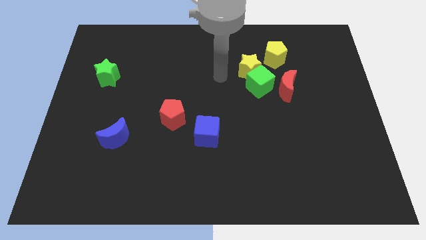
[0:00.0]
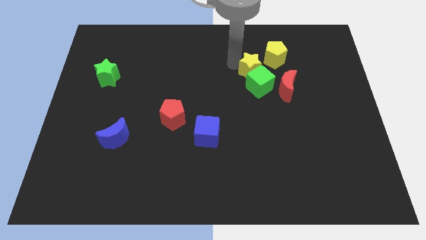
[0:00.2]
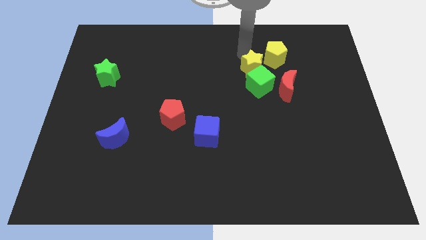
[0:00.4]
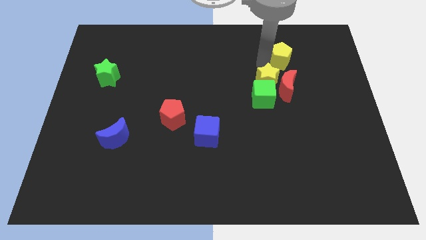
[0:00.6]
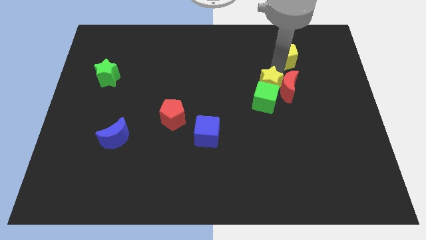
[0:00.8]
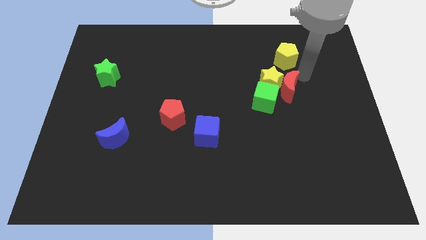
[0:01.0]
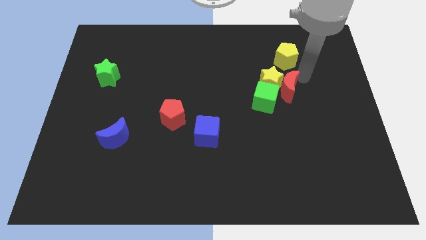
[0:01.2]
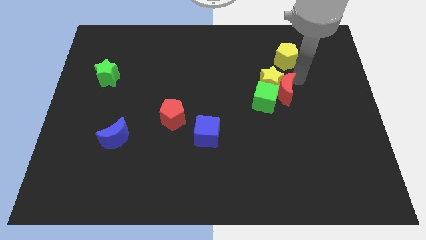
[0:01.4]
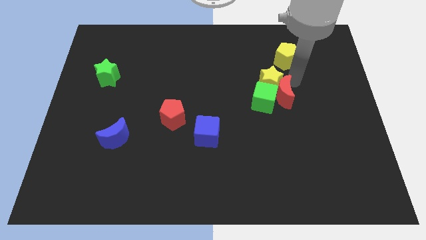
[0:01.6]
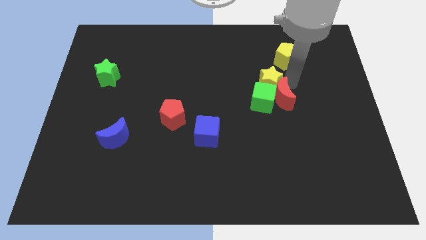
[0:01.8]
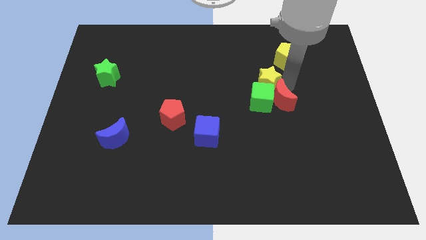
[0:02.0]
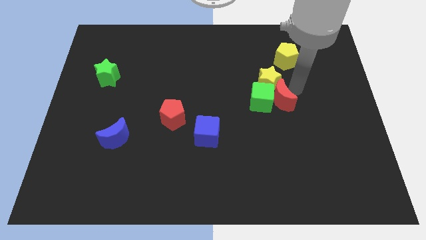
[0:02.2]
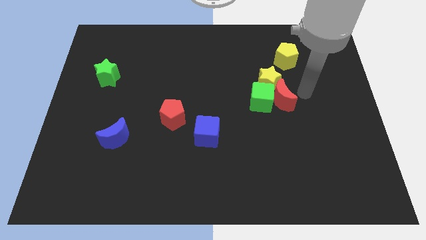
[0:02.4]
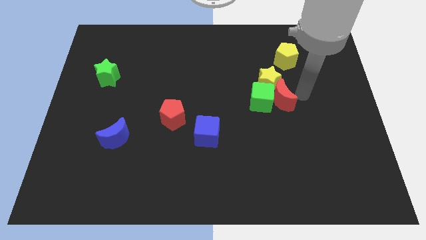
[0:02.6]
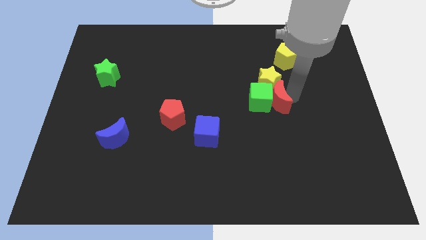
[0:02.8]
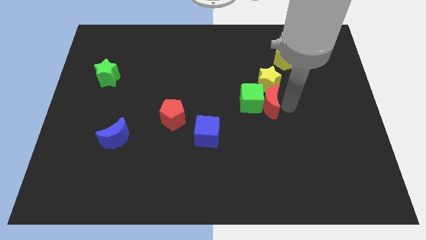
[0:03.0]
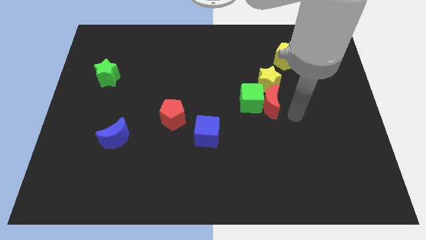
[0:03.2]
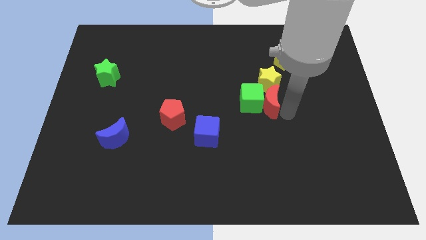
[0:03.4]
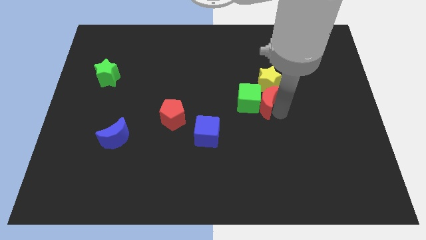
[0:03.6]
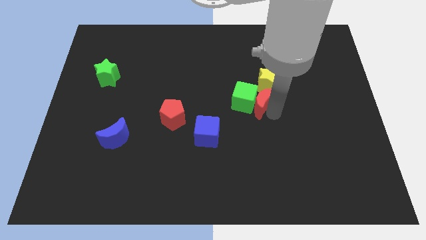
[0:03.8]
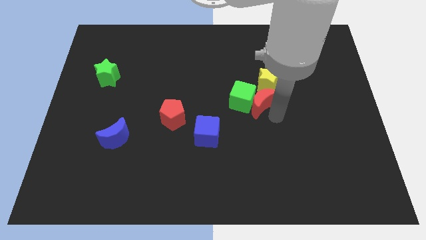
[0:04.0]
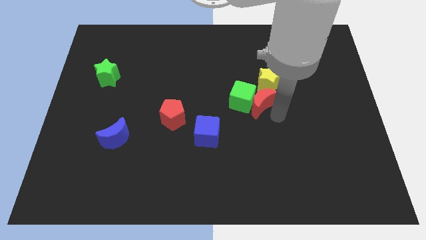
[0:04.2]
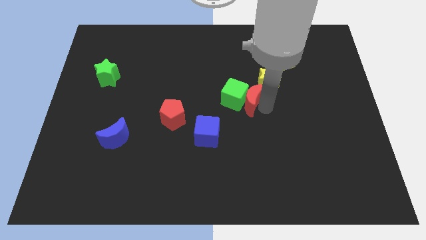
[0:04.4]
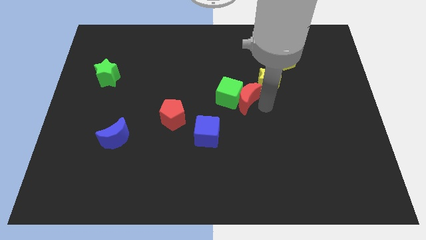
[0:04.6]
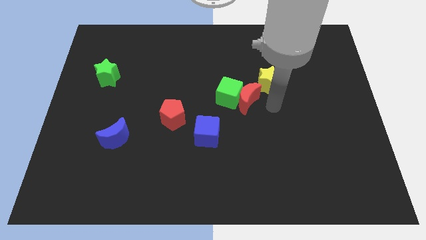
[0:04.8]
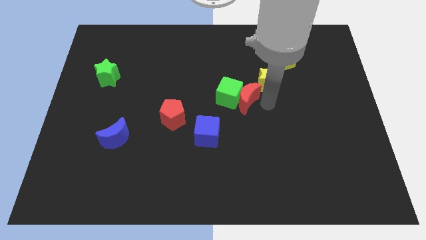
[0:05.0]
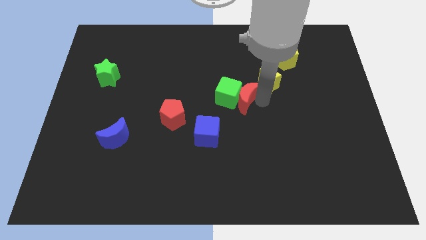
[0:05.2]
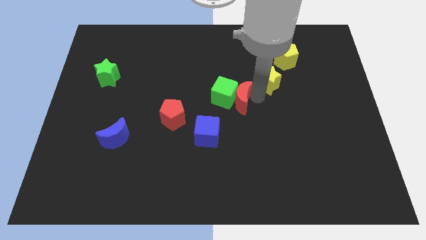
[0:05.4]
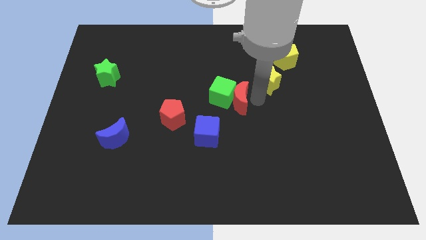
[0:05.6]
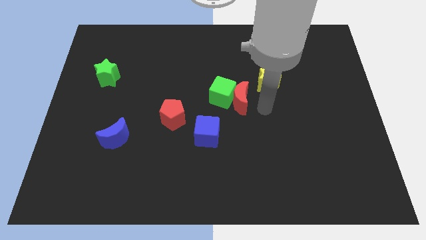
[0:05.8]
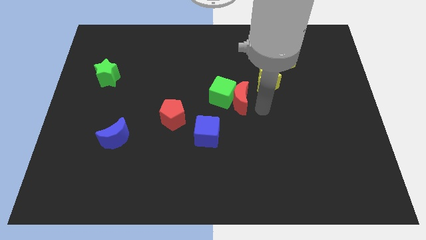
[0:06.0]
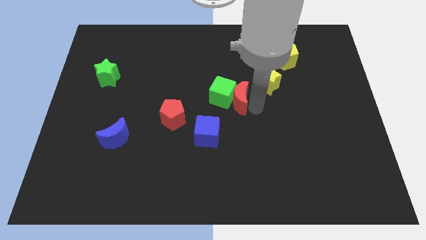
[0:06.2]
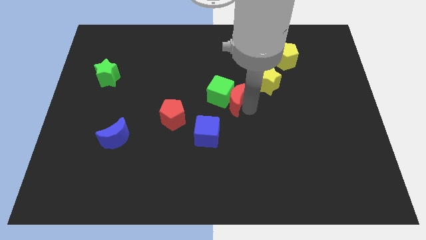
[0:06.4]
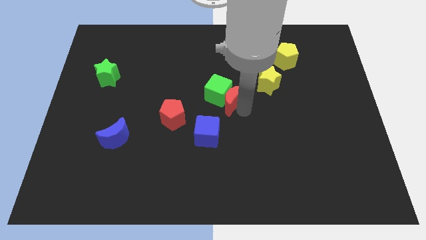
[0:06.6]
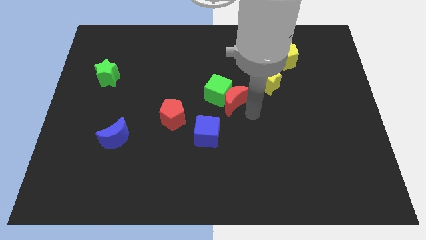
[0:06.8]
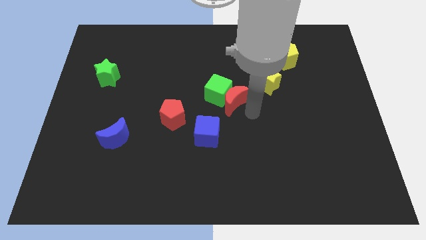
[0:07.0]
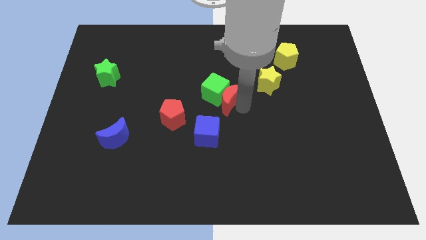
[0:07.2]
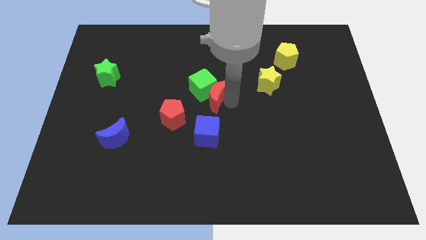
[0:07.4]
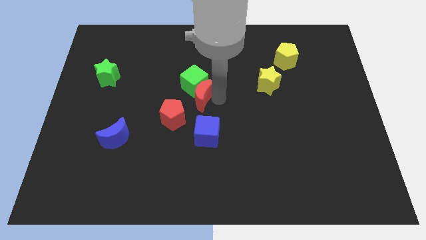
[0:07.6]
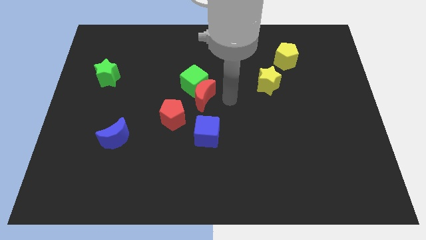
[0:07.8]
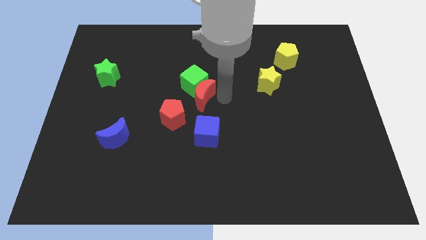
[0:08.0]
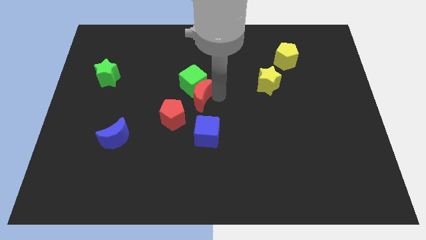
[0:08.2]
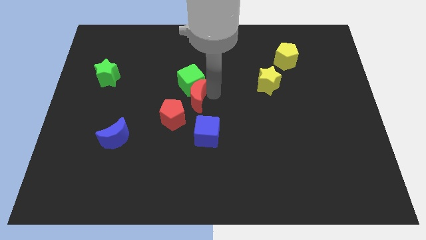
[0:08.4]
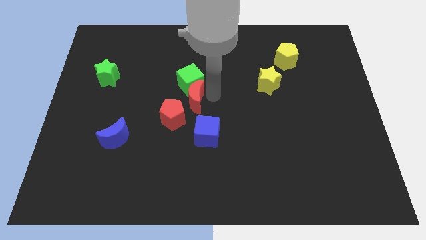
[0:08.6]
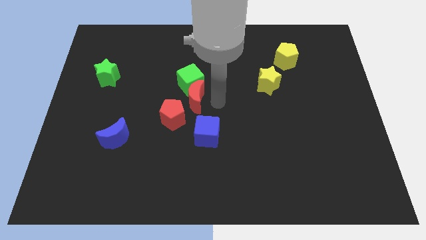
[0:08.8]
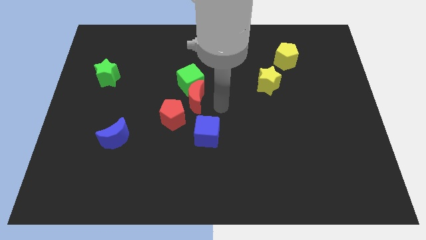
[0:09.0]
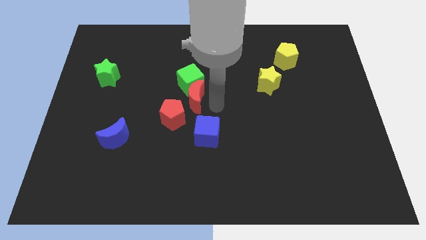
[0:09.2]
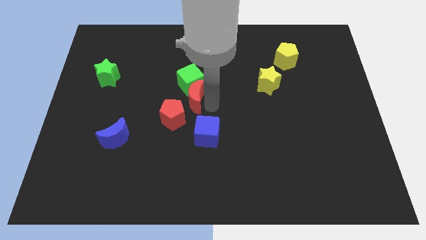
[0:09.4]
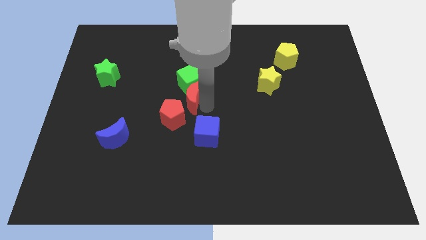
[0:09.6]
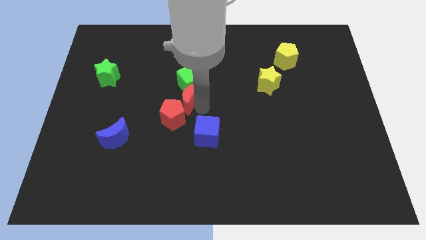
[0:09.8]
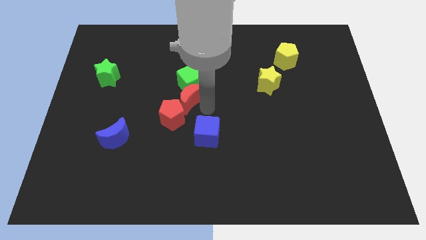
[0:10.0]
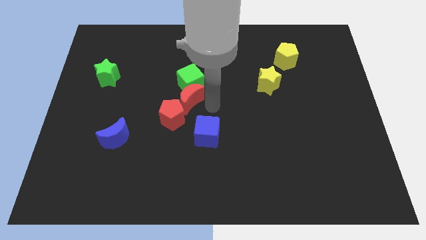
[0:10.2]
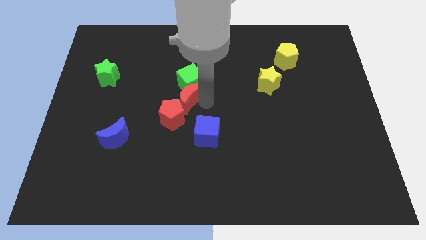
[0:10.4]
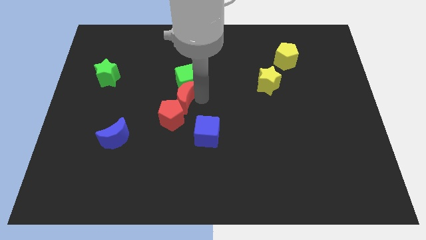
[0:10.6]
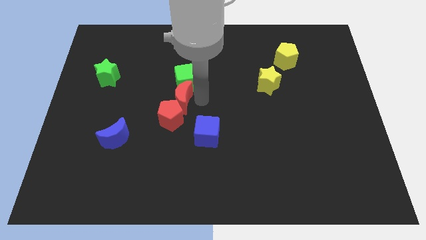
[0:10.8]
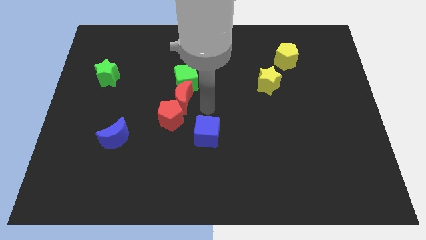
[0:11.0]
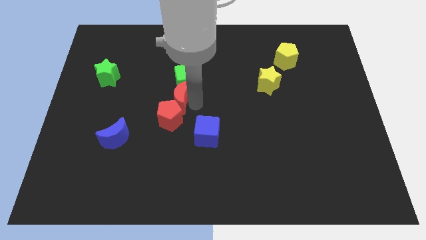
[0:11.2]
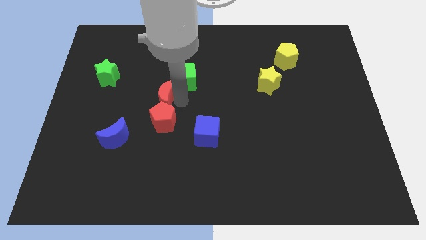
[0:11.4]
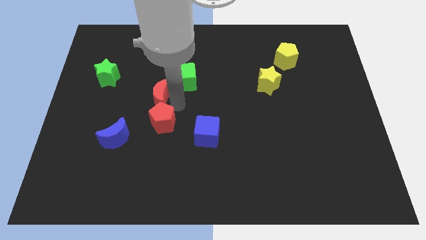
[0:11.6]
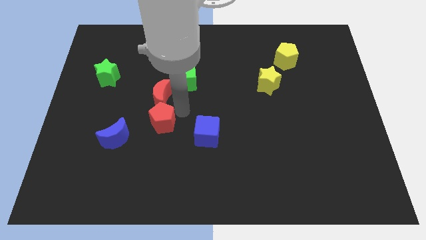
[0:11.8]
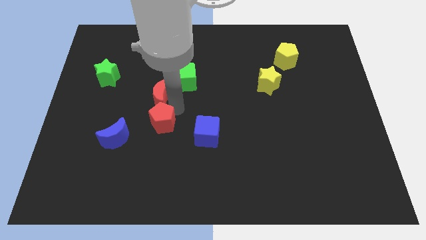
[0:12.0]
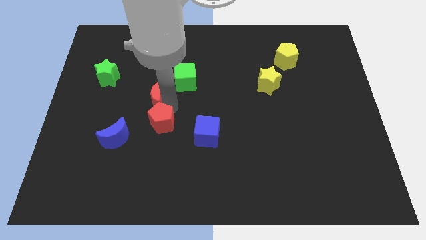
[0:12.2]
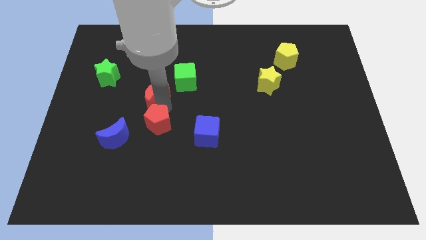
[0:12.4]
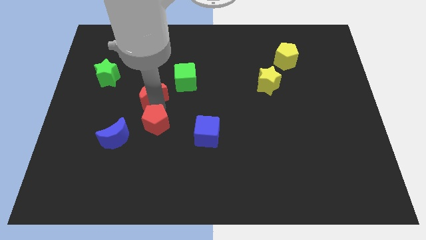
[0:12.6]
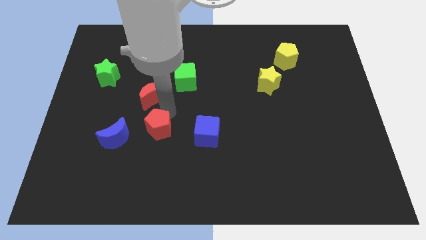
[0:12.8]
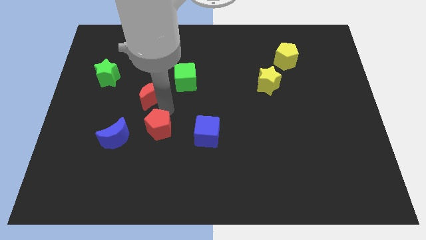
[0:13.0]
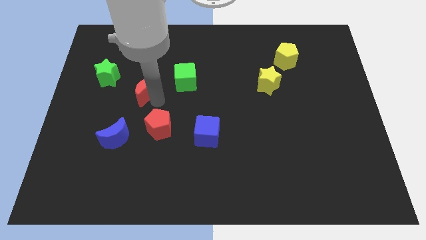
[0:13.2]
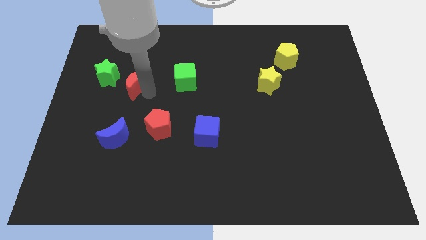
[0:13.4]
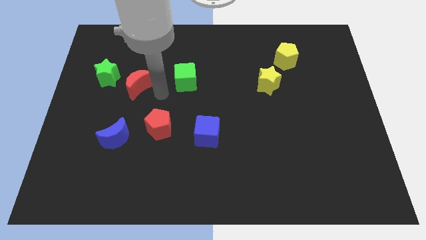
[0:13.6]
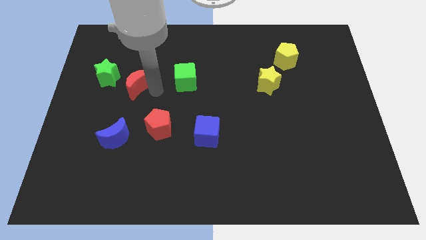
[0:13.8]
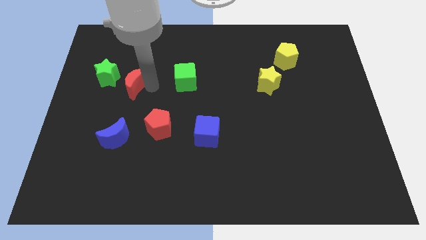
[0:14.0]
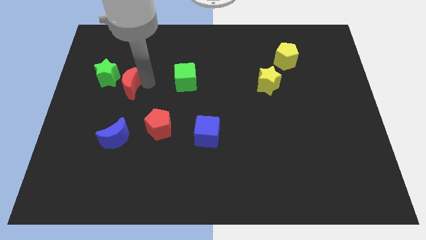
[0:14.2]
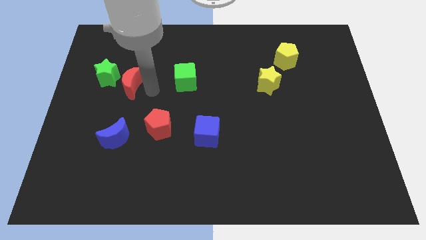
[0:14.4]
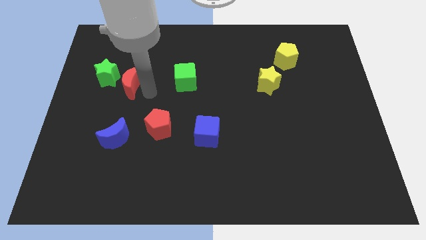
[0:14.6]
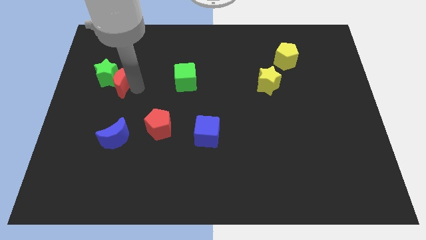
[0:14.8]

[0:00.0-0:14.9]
put the red moon towards the green star
